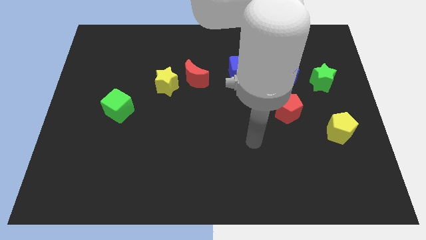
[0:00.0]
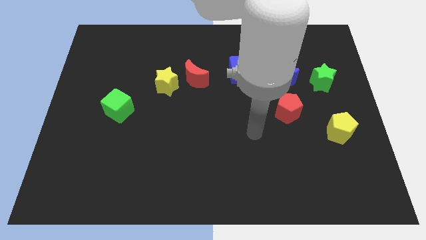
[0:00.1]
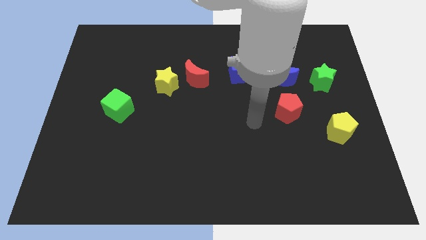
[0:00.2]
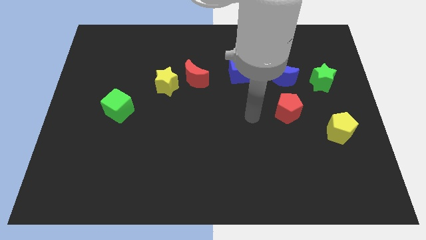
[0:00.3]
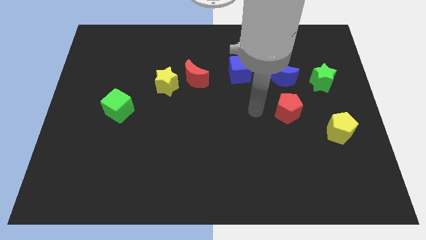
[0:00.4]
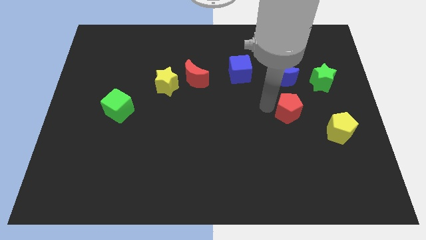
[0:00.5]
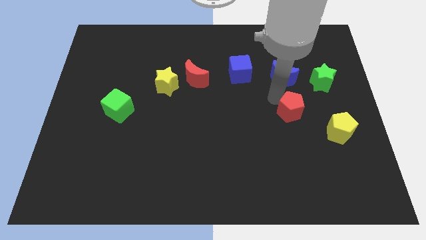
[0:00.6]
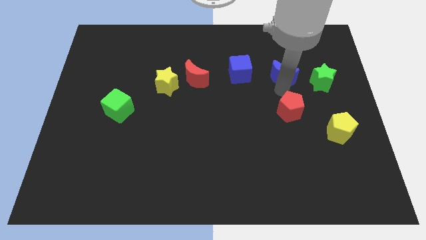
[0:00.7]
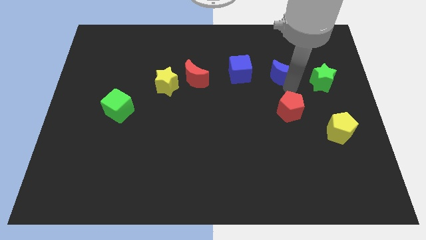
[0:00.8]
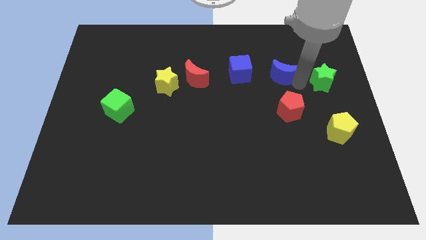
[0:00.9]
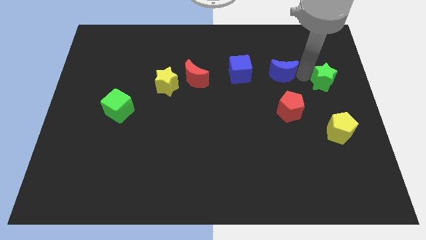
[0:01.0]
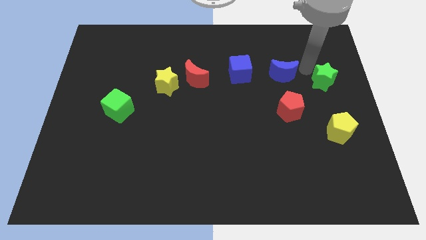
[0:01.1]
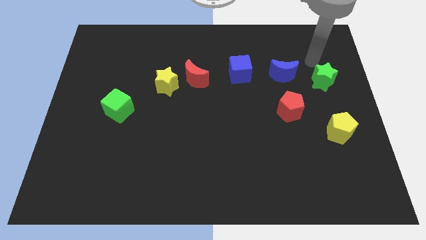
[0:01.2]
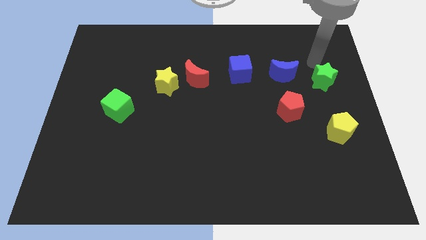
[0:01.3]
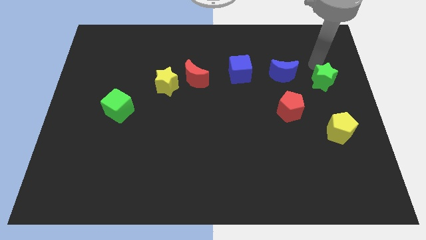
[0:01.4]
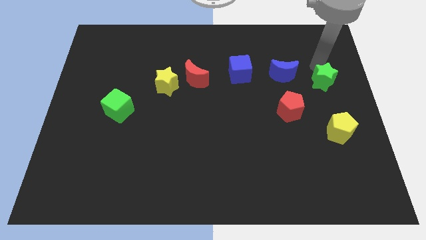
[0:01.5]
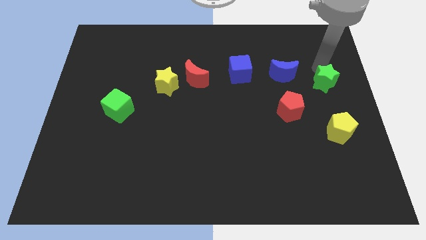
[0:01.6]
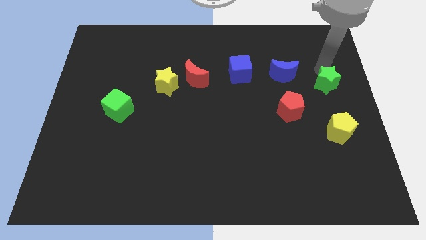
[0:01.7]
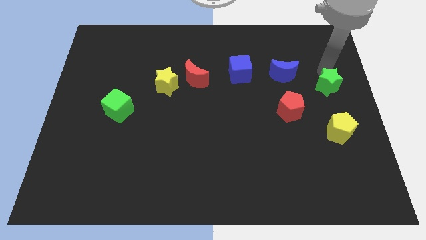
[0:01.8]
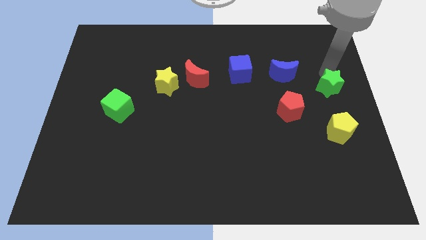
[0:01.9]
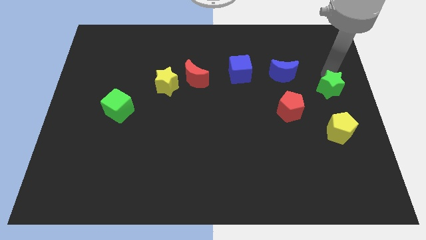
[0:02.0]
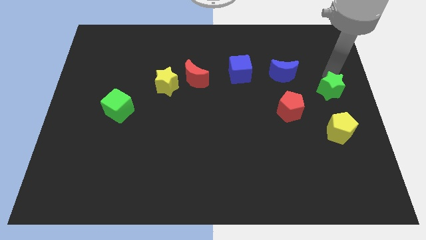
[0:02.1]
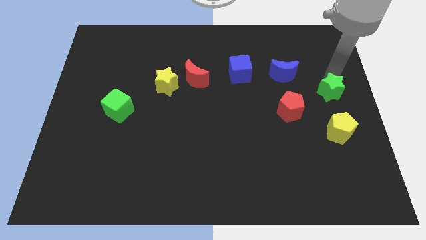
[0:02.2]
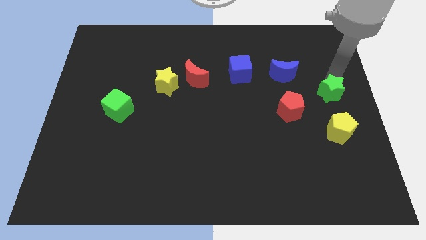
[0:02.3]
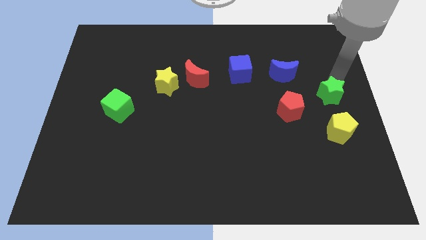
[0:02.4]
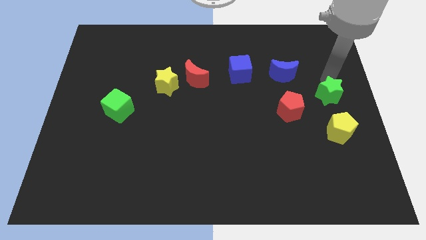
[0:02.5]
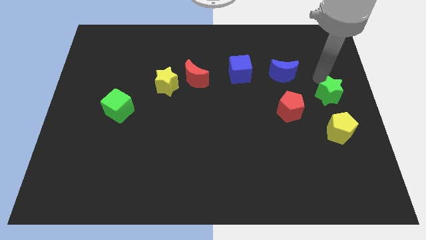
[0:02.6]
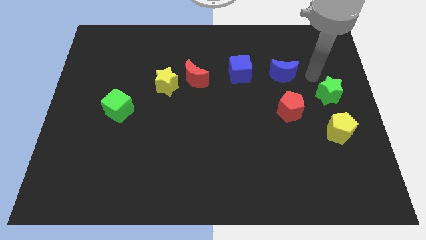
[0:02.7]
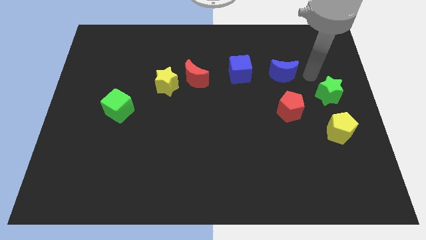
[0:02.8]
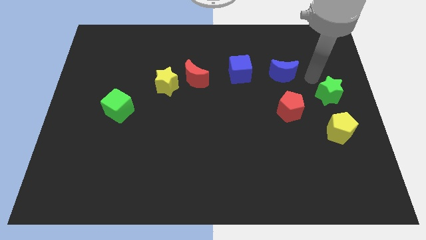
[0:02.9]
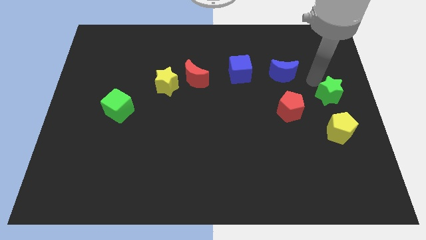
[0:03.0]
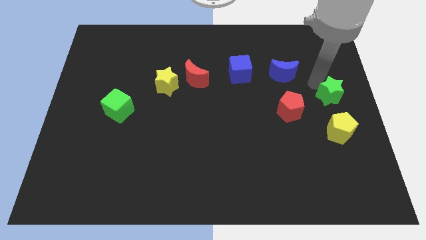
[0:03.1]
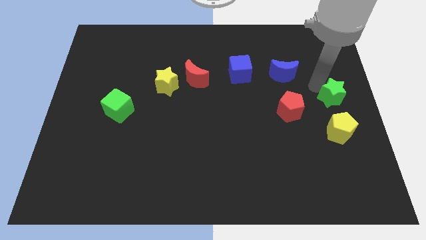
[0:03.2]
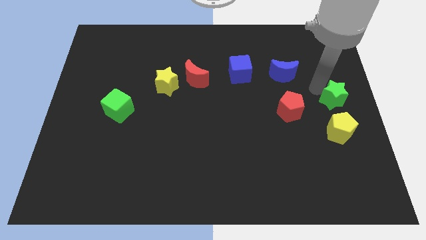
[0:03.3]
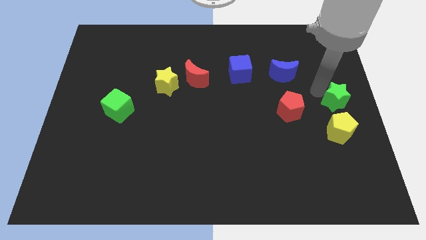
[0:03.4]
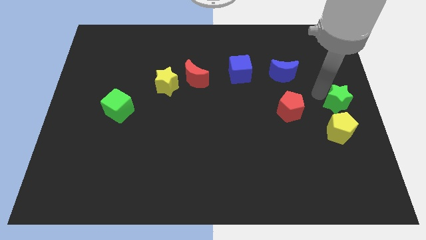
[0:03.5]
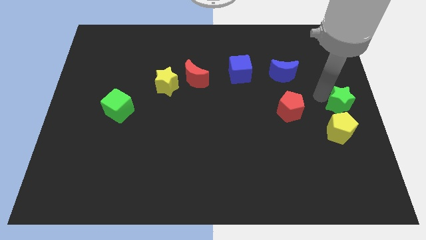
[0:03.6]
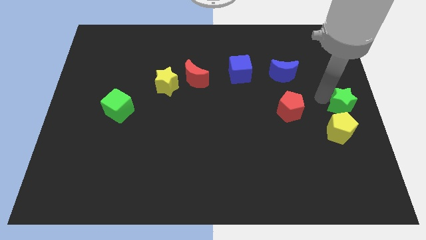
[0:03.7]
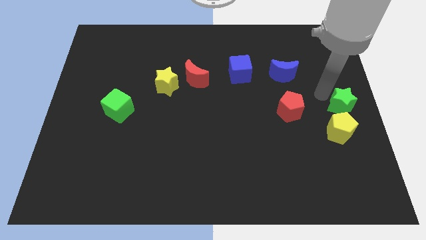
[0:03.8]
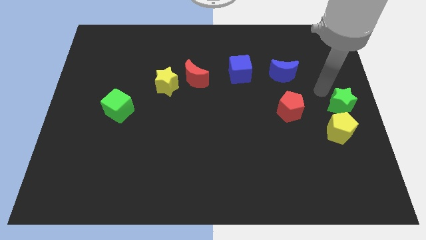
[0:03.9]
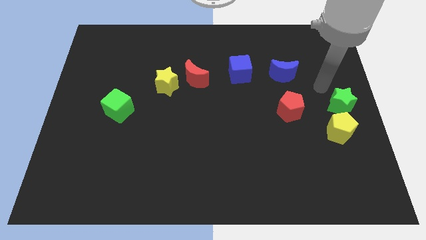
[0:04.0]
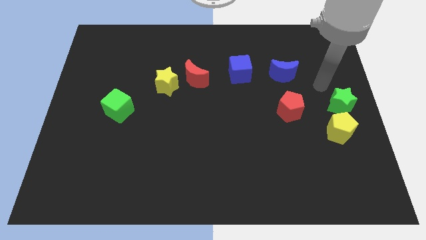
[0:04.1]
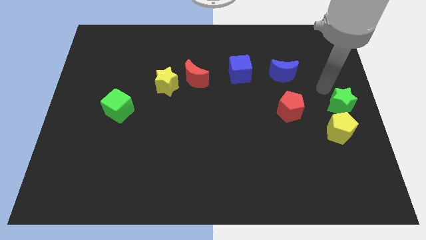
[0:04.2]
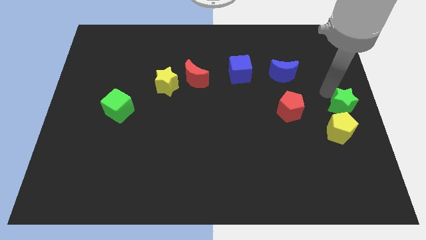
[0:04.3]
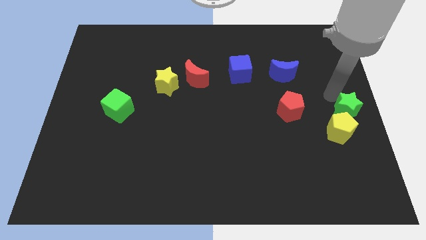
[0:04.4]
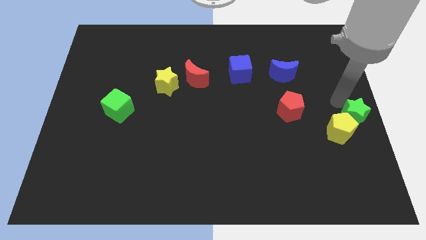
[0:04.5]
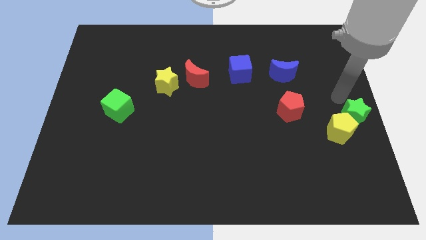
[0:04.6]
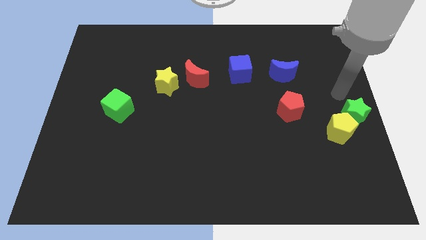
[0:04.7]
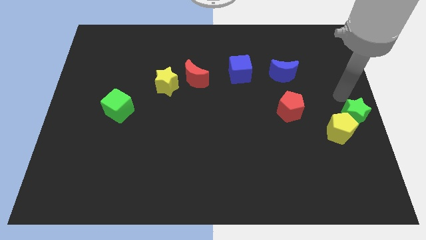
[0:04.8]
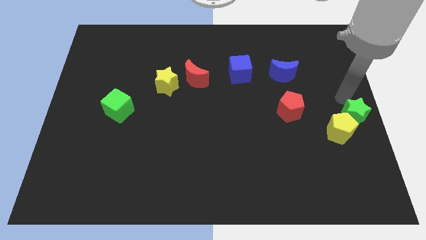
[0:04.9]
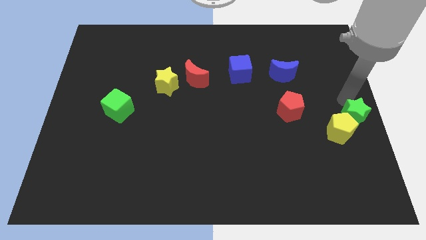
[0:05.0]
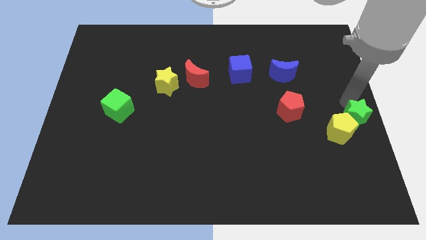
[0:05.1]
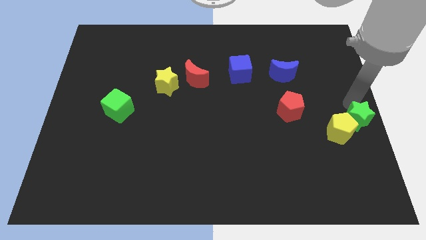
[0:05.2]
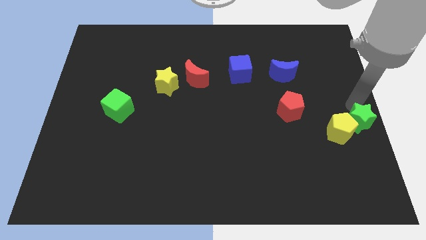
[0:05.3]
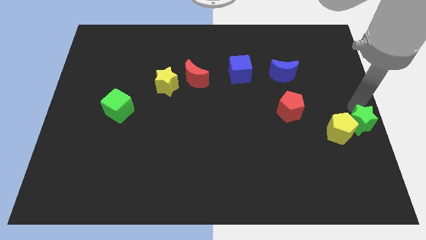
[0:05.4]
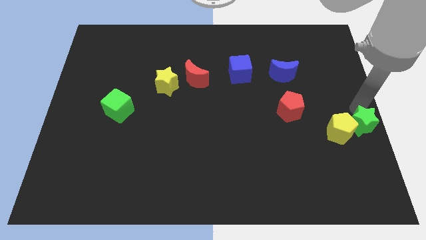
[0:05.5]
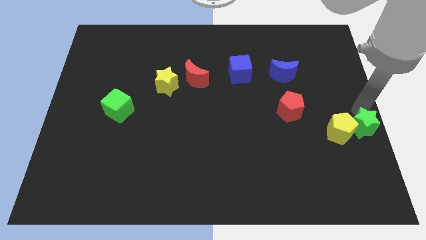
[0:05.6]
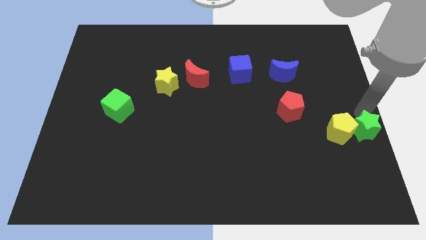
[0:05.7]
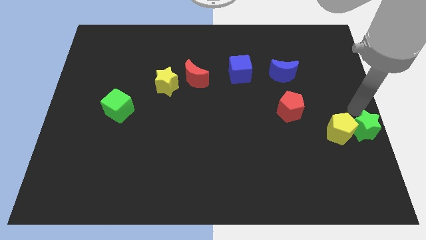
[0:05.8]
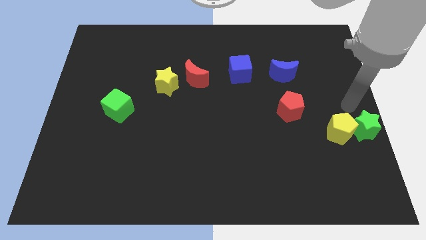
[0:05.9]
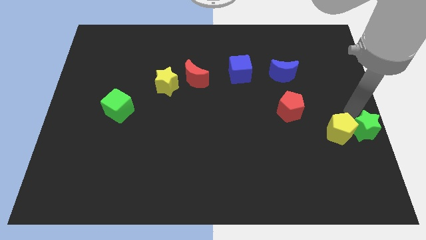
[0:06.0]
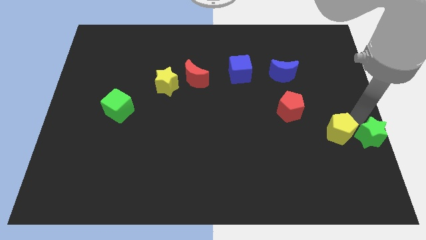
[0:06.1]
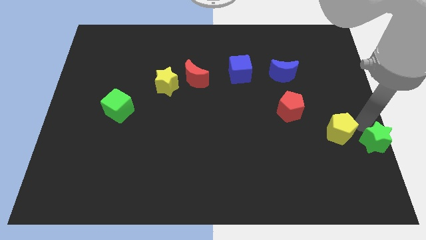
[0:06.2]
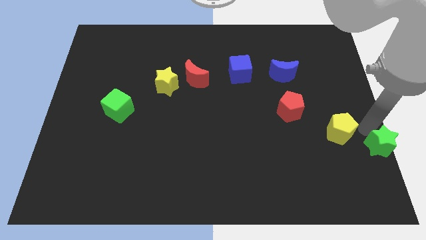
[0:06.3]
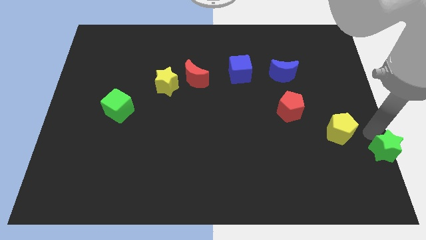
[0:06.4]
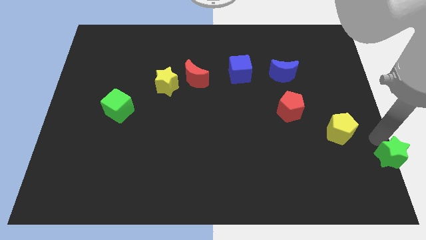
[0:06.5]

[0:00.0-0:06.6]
put the green star to the bottom right
